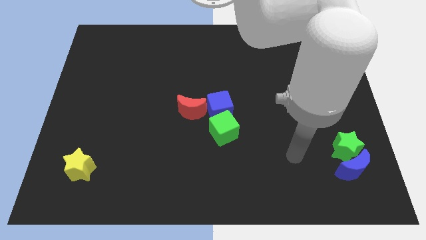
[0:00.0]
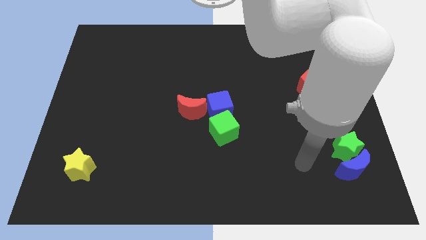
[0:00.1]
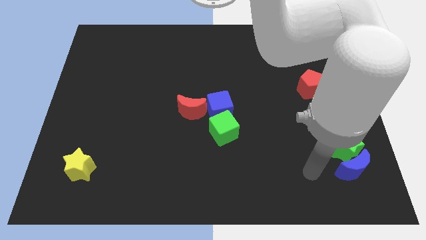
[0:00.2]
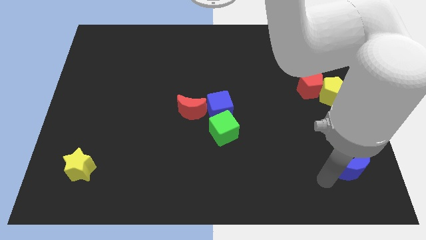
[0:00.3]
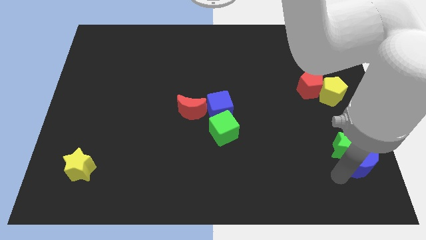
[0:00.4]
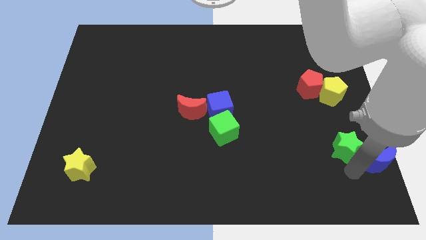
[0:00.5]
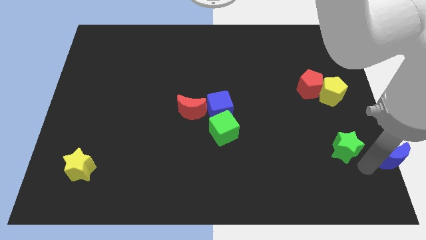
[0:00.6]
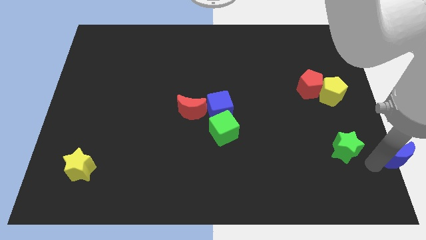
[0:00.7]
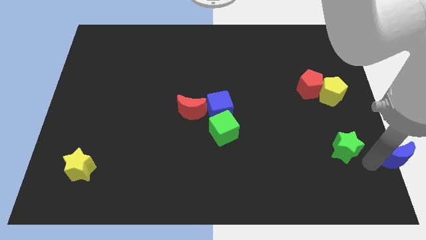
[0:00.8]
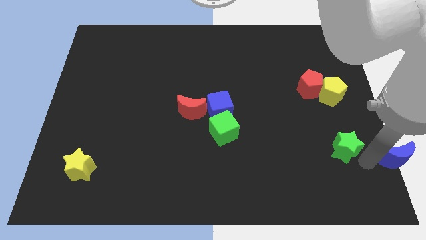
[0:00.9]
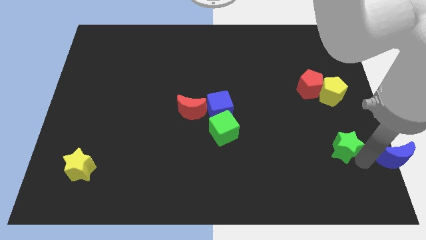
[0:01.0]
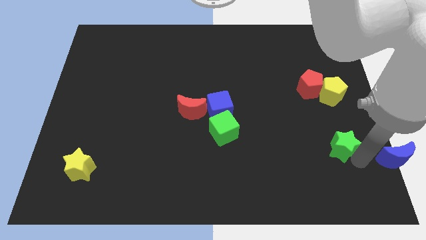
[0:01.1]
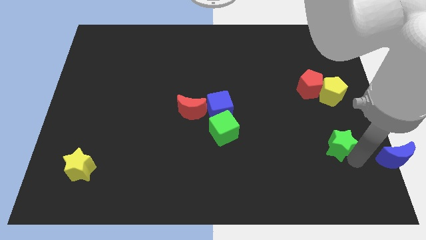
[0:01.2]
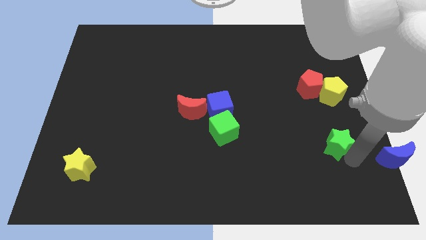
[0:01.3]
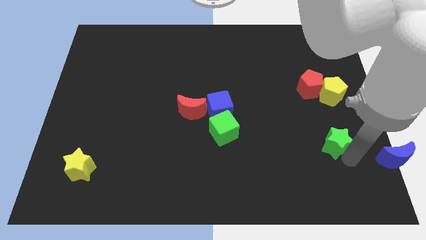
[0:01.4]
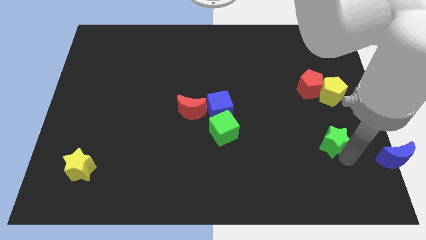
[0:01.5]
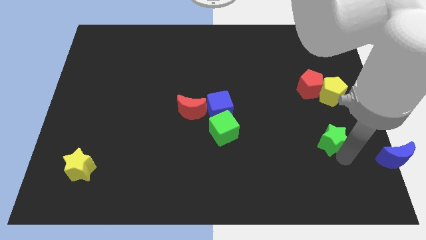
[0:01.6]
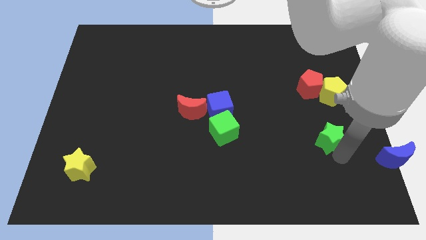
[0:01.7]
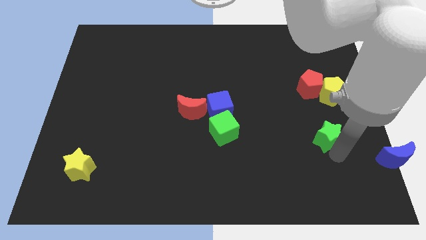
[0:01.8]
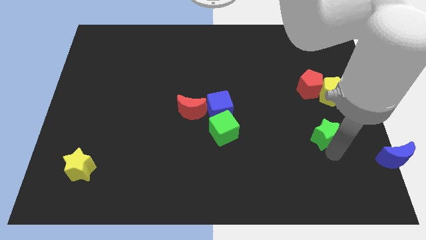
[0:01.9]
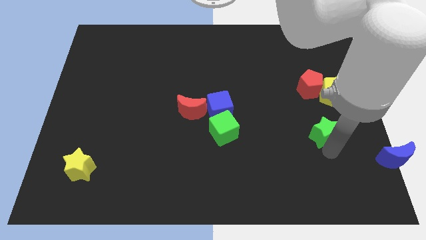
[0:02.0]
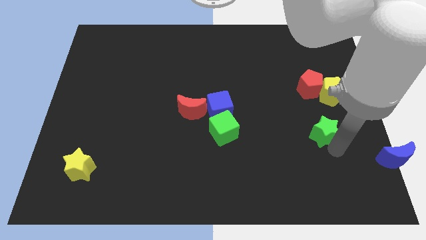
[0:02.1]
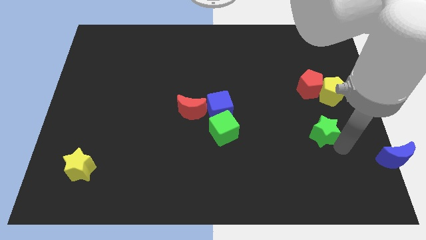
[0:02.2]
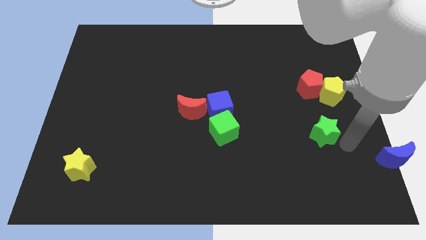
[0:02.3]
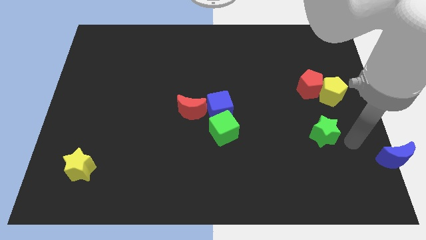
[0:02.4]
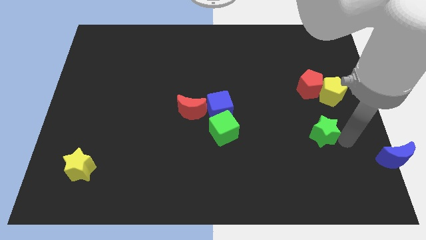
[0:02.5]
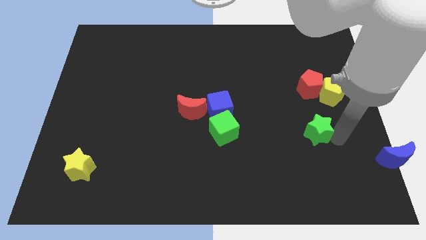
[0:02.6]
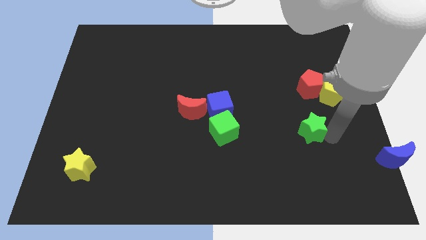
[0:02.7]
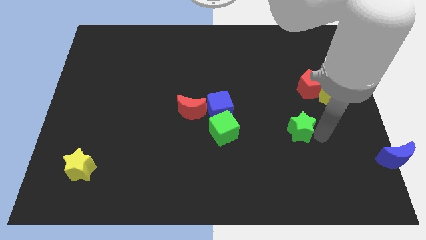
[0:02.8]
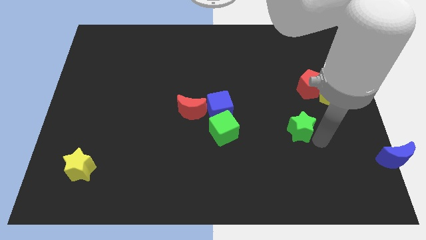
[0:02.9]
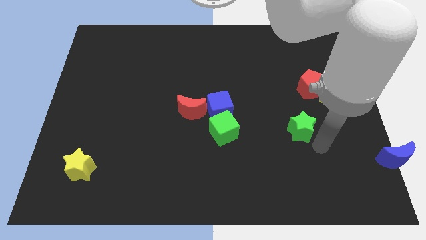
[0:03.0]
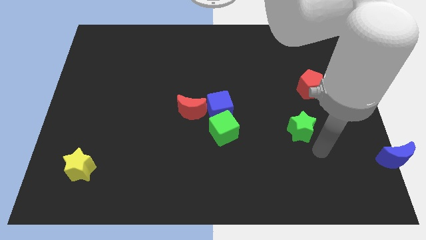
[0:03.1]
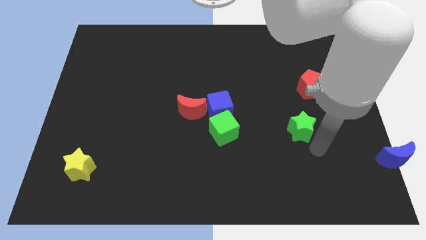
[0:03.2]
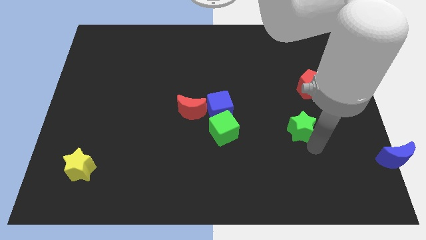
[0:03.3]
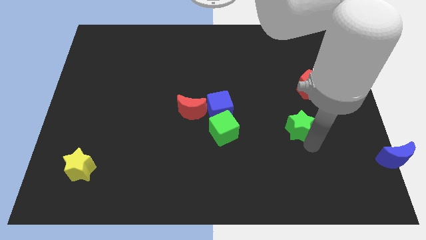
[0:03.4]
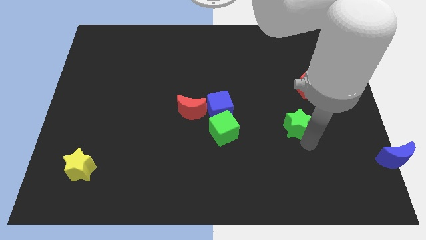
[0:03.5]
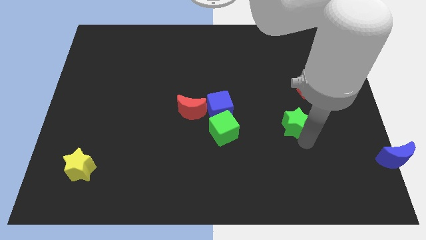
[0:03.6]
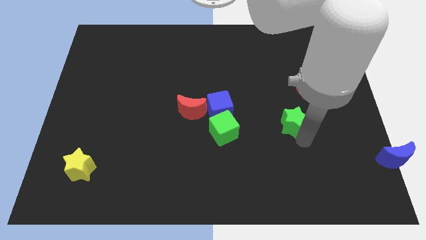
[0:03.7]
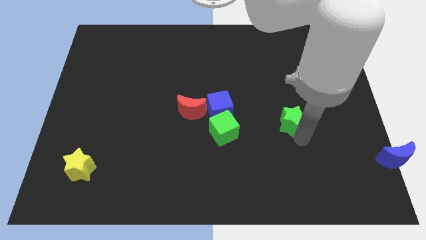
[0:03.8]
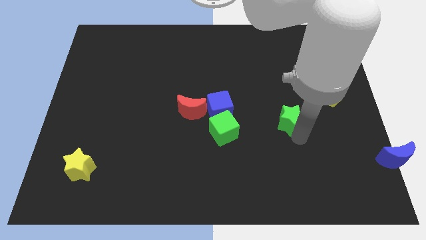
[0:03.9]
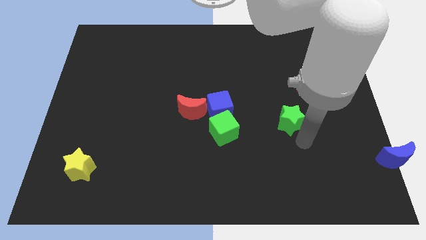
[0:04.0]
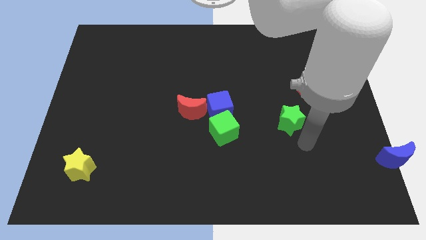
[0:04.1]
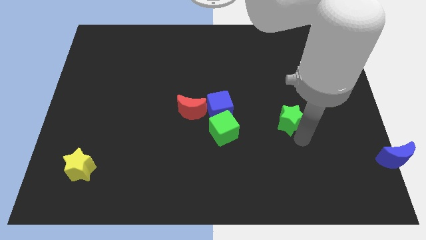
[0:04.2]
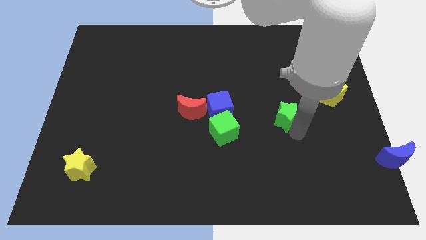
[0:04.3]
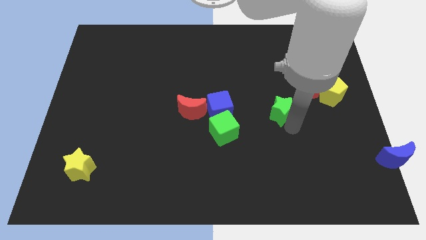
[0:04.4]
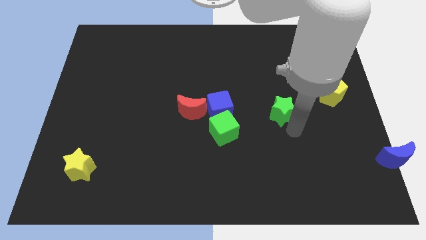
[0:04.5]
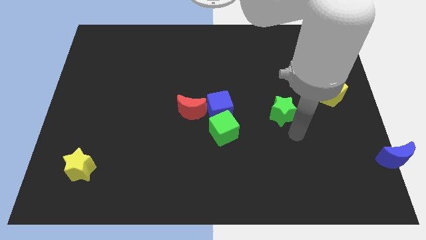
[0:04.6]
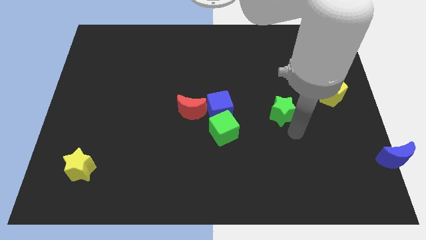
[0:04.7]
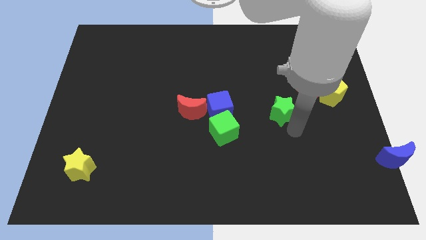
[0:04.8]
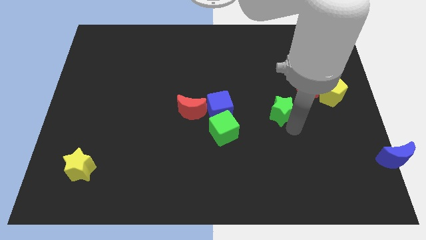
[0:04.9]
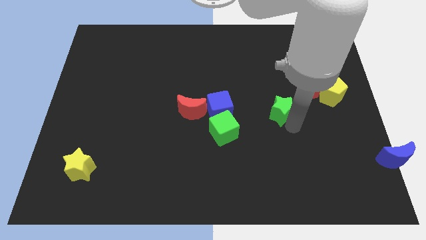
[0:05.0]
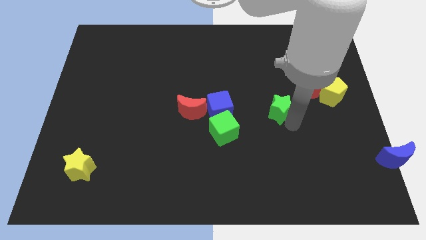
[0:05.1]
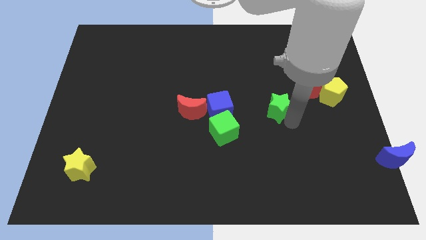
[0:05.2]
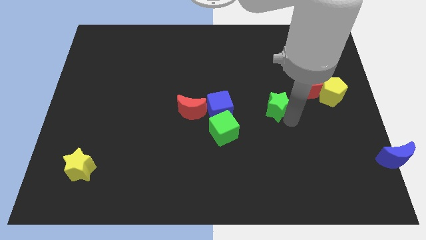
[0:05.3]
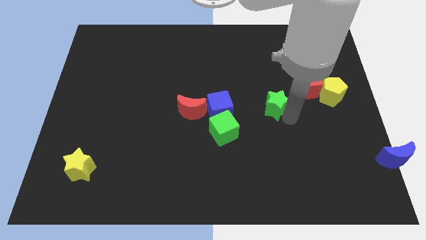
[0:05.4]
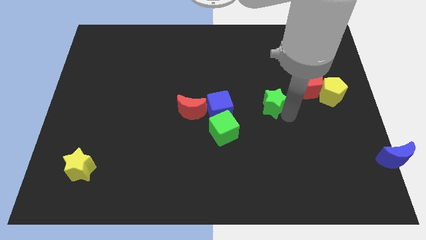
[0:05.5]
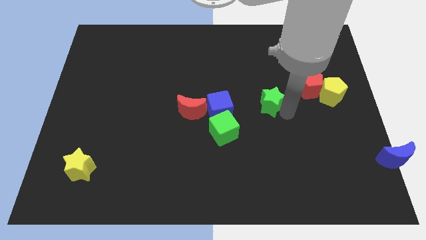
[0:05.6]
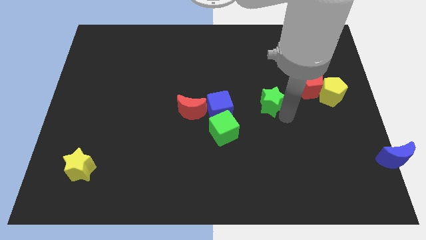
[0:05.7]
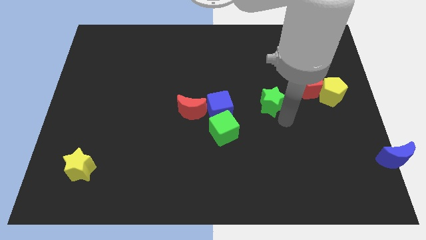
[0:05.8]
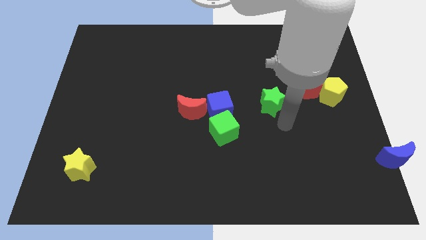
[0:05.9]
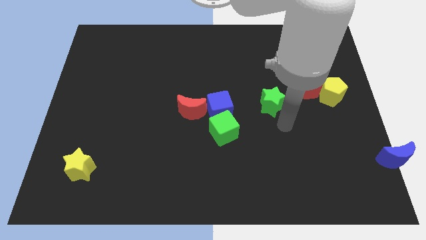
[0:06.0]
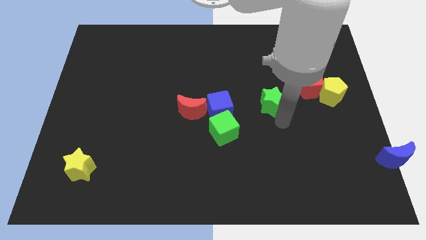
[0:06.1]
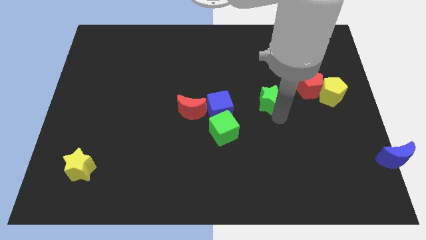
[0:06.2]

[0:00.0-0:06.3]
push the green star up and left

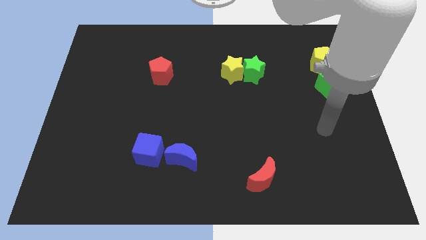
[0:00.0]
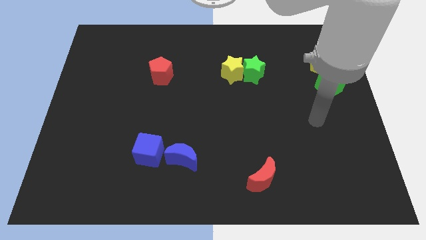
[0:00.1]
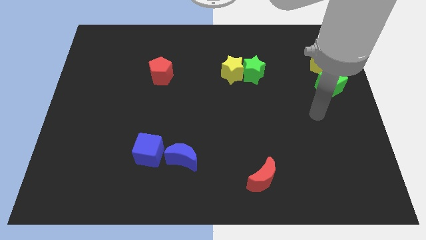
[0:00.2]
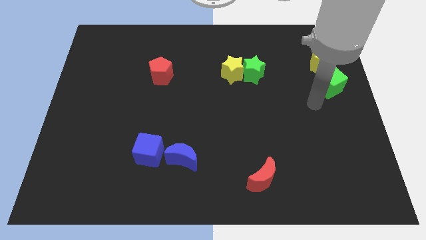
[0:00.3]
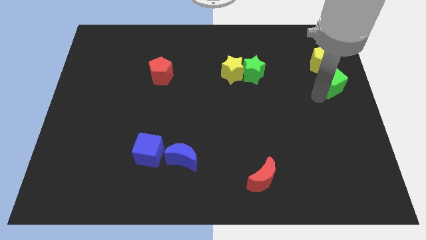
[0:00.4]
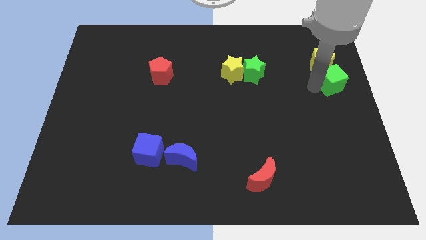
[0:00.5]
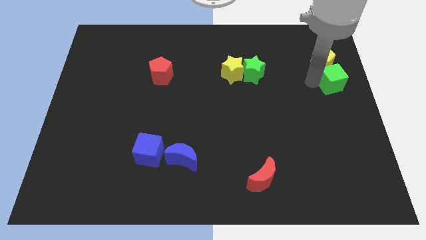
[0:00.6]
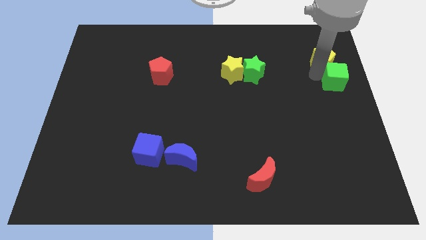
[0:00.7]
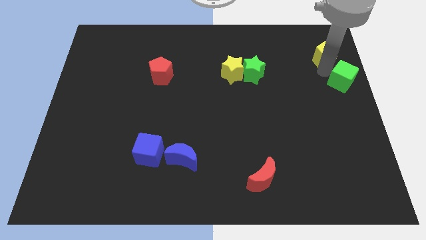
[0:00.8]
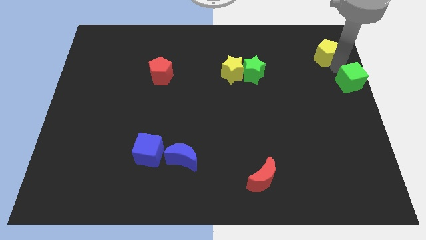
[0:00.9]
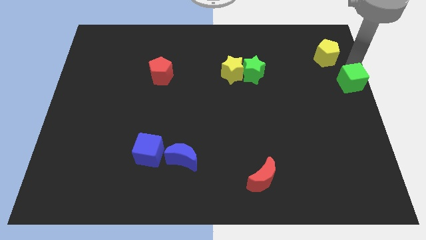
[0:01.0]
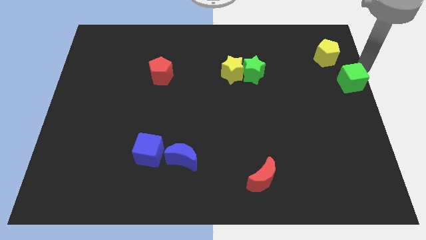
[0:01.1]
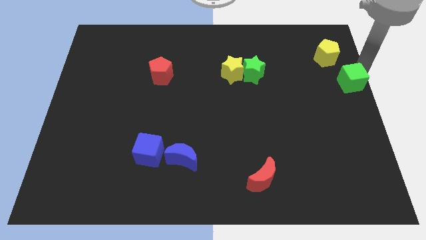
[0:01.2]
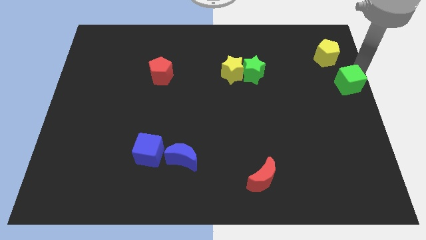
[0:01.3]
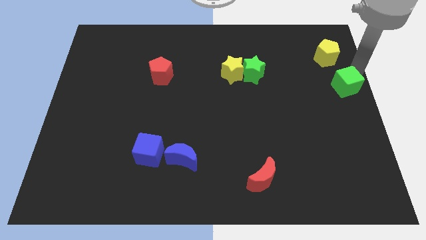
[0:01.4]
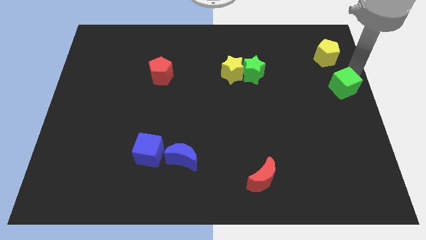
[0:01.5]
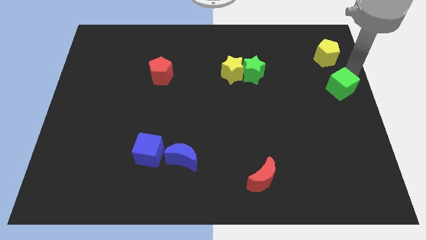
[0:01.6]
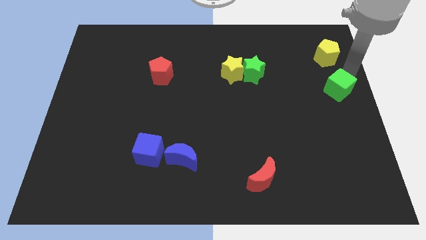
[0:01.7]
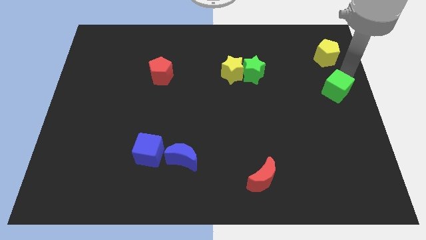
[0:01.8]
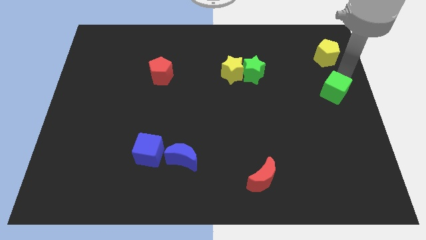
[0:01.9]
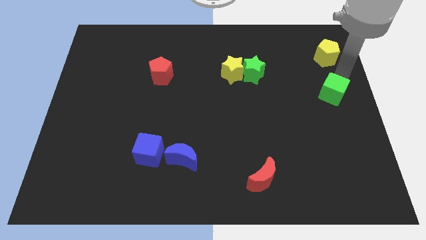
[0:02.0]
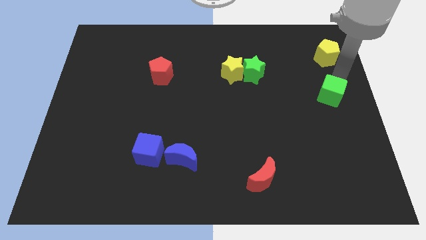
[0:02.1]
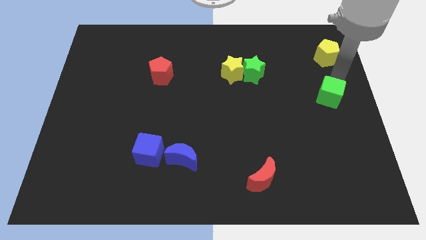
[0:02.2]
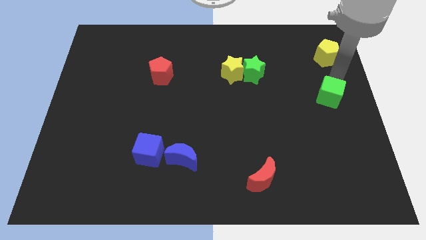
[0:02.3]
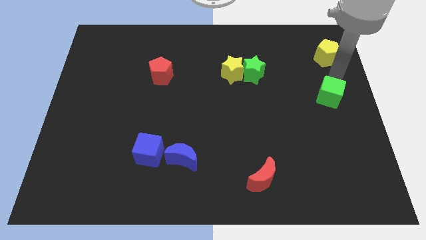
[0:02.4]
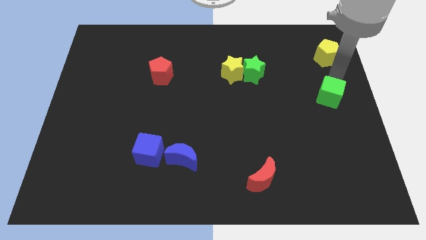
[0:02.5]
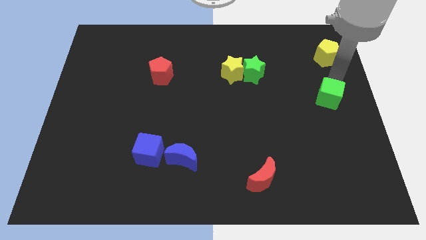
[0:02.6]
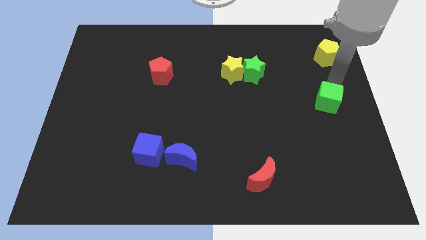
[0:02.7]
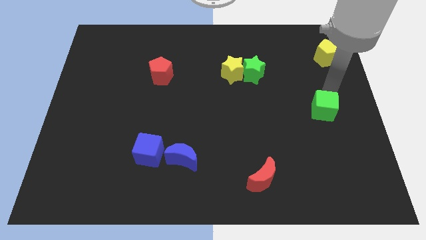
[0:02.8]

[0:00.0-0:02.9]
slide the green cube down somewhat
